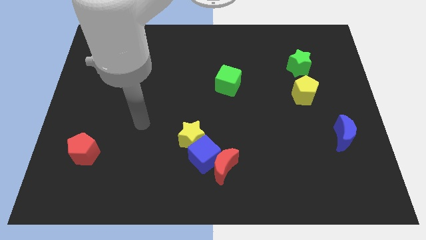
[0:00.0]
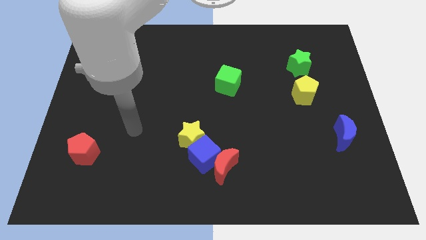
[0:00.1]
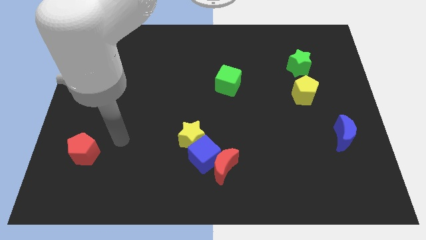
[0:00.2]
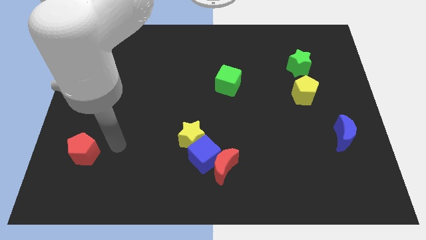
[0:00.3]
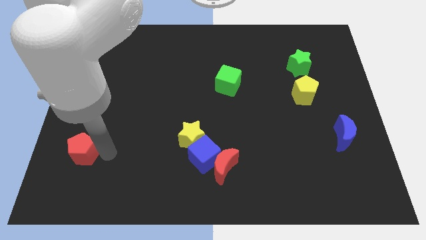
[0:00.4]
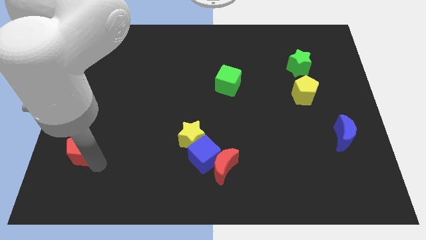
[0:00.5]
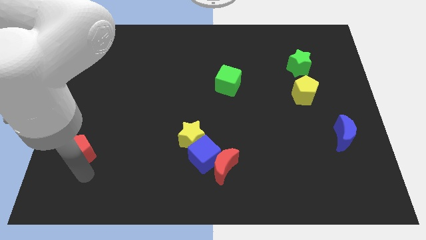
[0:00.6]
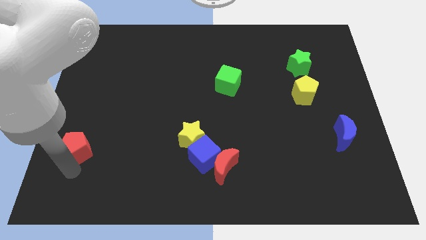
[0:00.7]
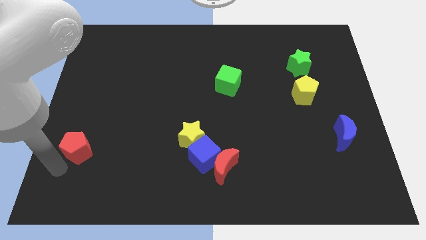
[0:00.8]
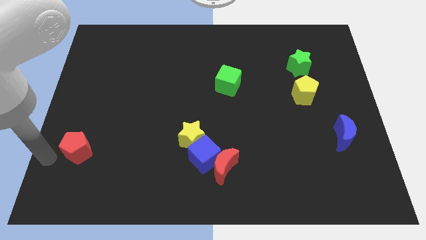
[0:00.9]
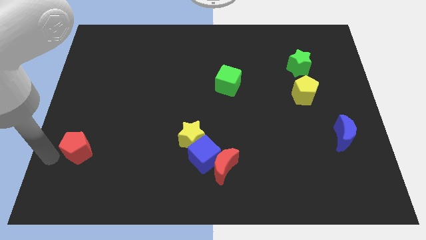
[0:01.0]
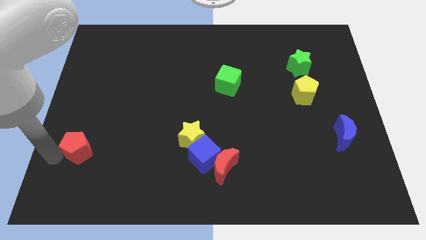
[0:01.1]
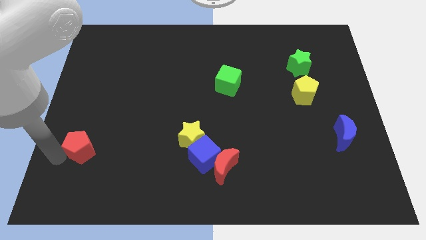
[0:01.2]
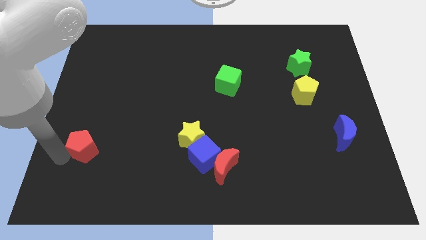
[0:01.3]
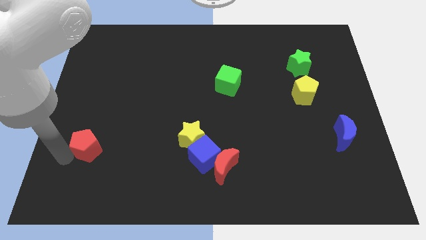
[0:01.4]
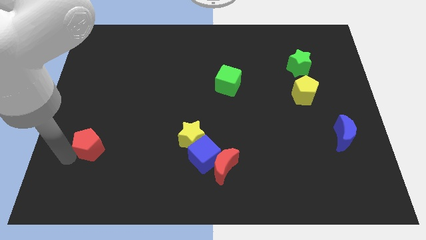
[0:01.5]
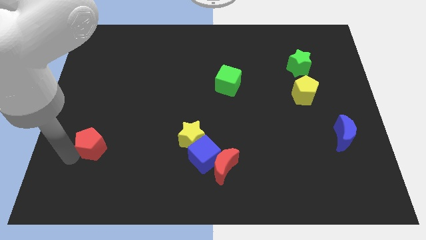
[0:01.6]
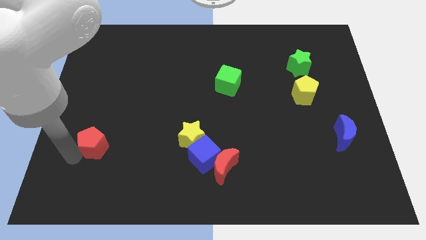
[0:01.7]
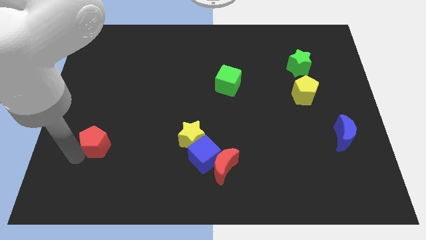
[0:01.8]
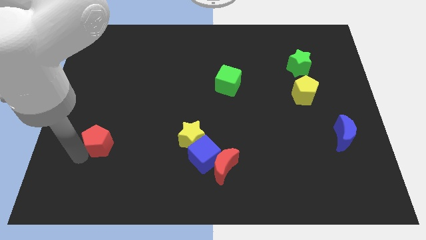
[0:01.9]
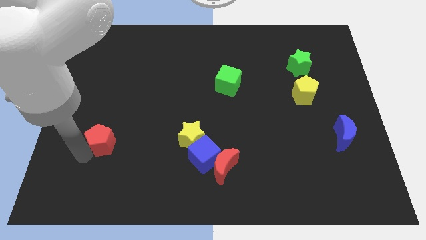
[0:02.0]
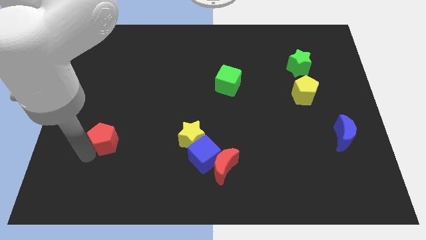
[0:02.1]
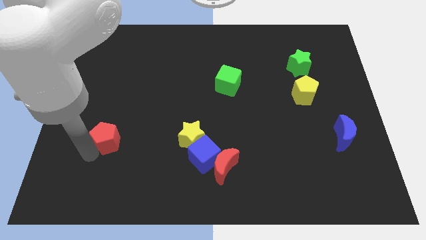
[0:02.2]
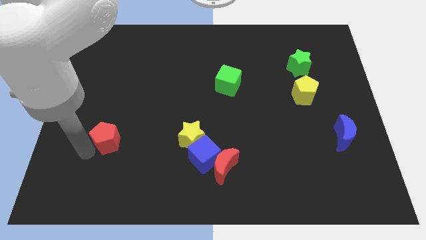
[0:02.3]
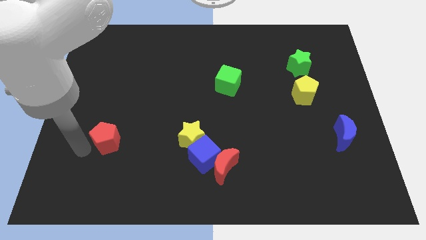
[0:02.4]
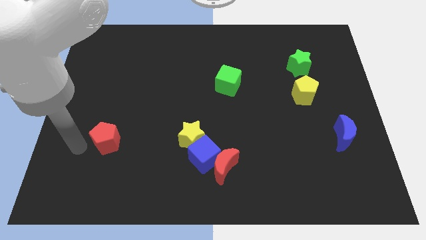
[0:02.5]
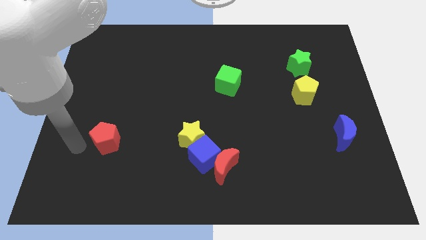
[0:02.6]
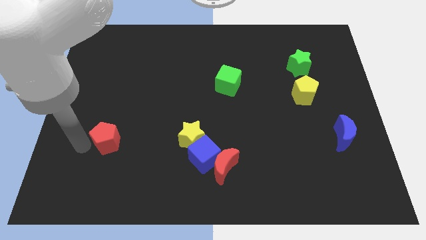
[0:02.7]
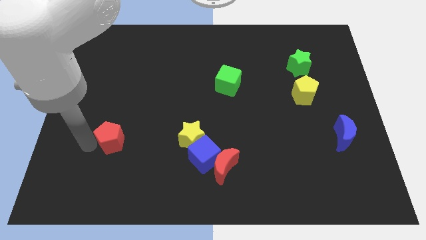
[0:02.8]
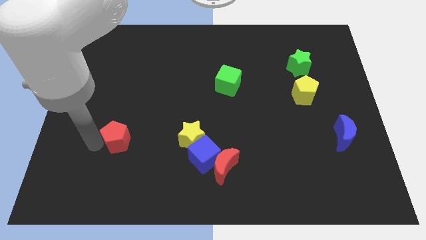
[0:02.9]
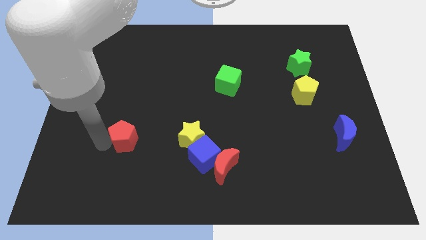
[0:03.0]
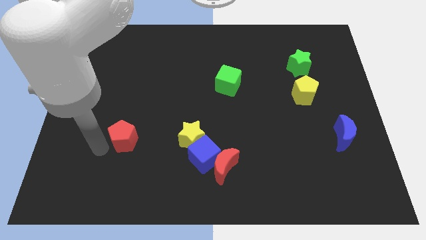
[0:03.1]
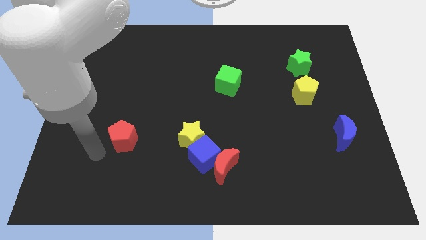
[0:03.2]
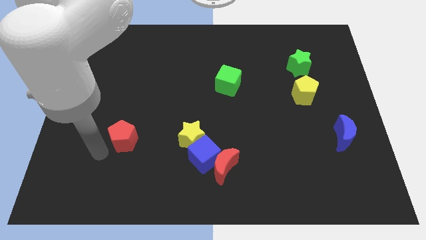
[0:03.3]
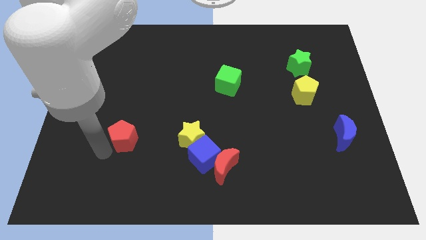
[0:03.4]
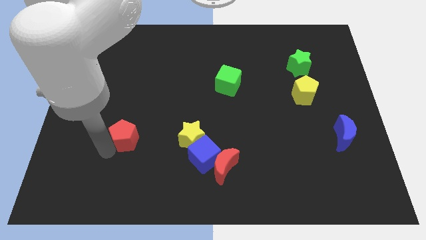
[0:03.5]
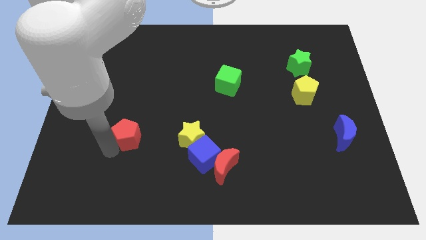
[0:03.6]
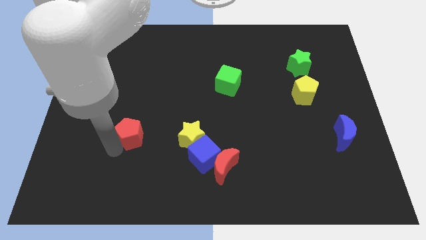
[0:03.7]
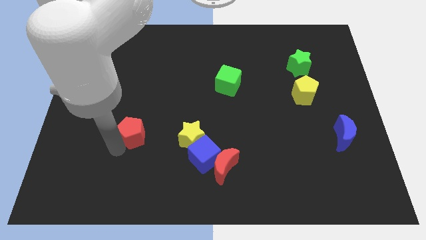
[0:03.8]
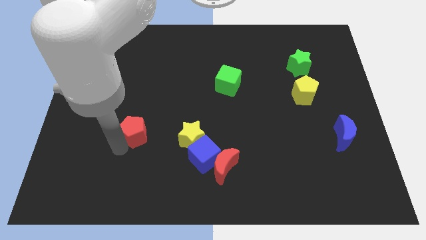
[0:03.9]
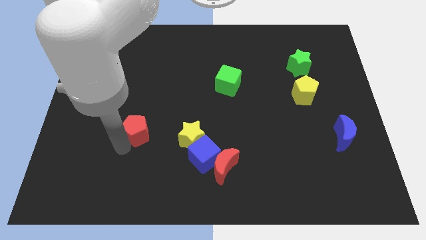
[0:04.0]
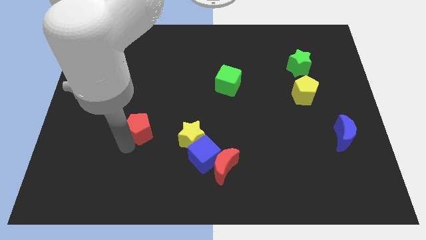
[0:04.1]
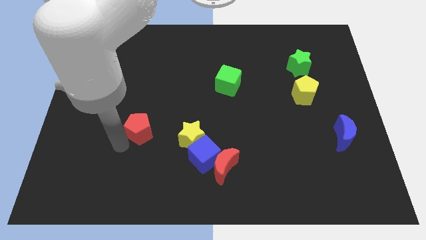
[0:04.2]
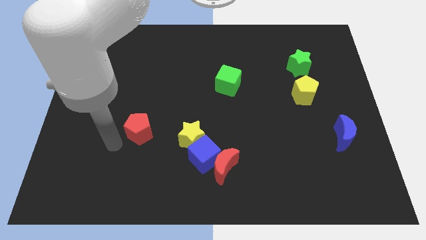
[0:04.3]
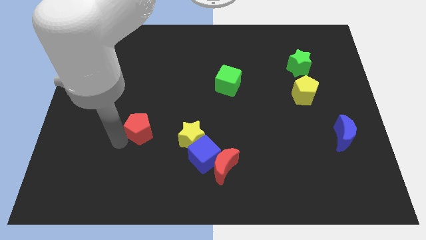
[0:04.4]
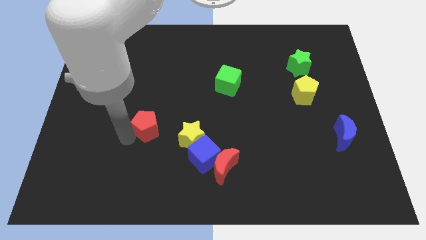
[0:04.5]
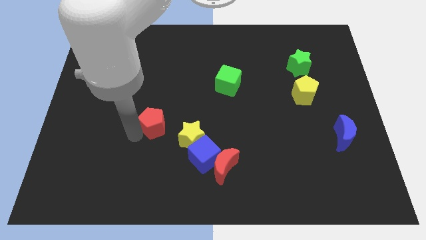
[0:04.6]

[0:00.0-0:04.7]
push the red pentagon diagonally up and to the left of the yellow star

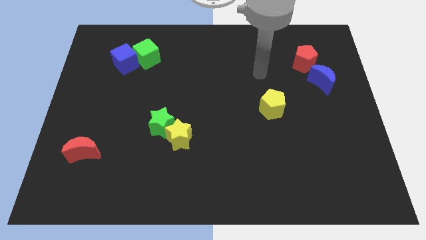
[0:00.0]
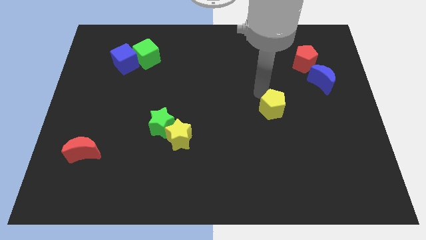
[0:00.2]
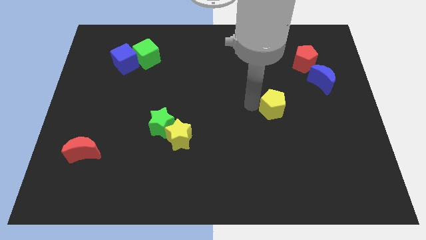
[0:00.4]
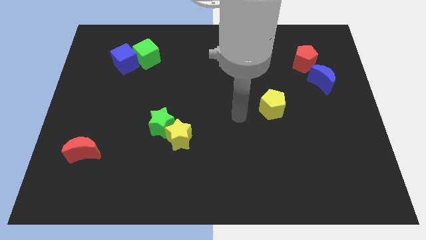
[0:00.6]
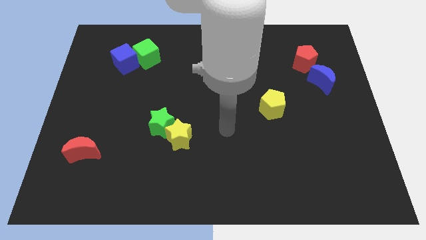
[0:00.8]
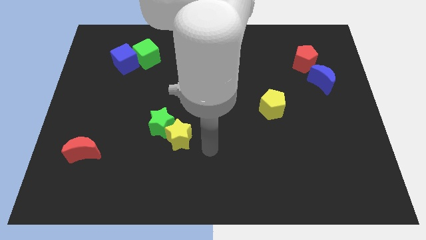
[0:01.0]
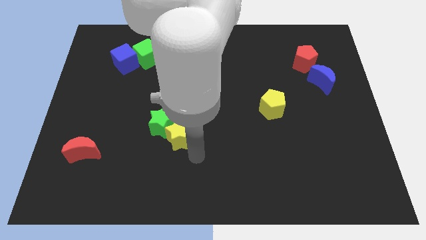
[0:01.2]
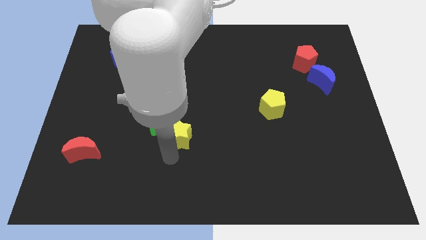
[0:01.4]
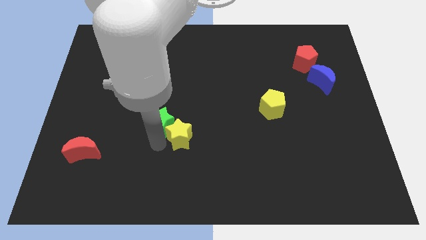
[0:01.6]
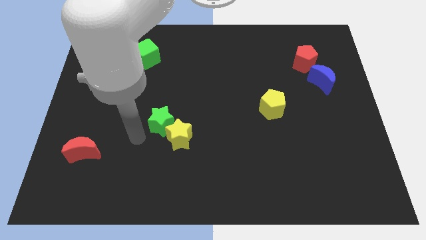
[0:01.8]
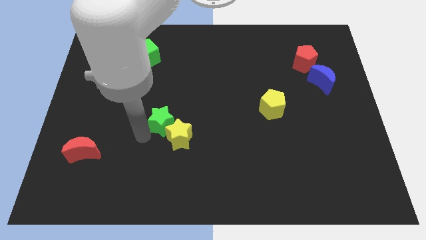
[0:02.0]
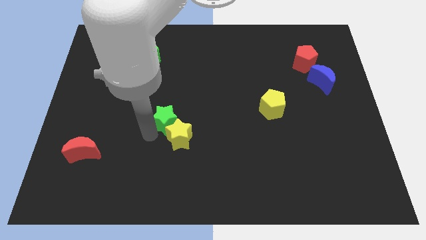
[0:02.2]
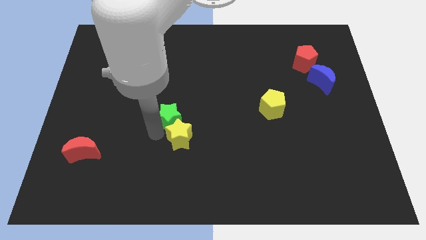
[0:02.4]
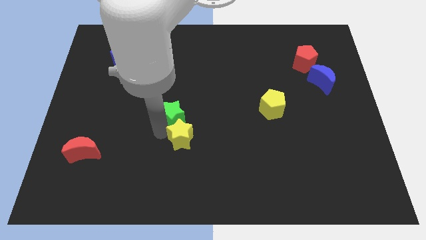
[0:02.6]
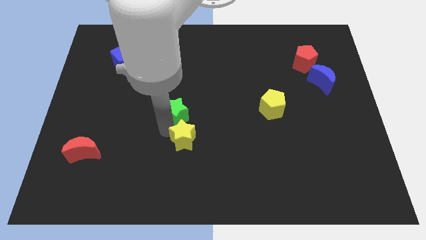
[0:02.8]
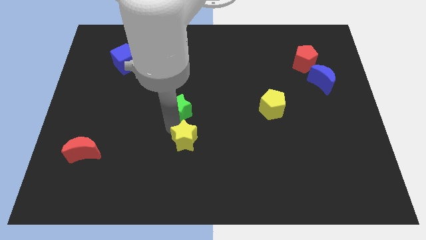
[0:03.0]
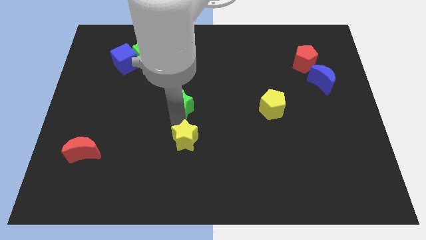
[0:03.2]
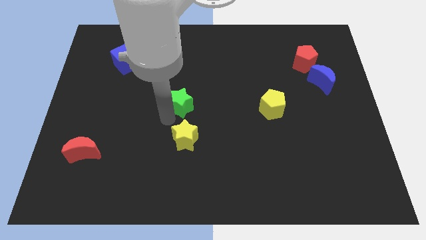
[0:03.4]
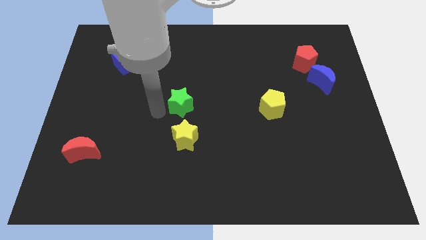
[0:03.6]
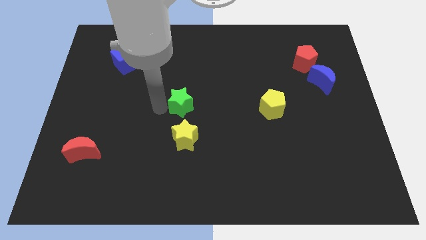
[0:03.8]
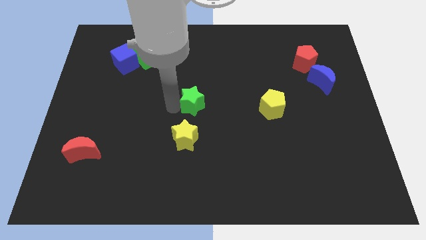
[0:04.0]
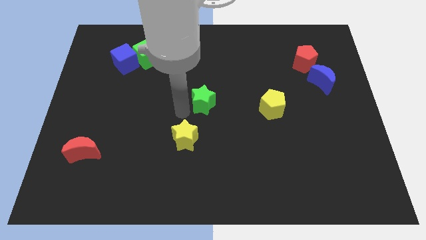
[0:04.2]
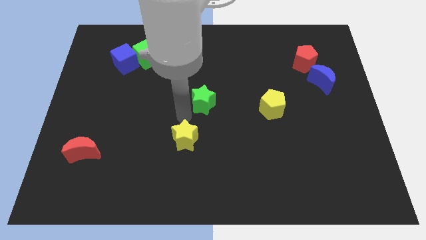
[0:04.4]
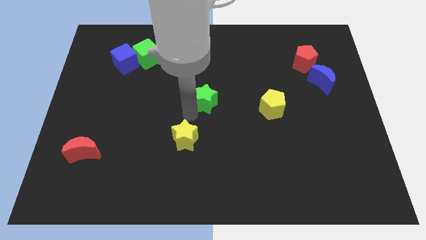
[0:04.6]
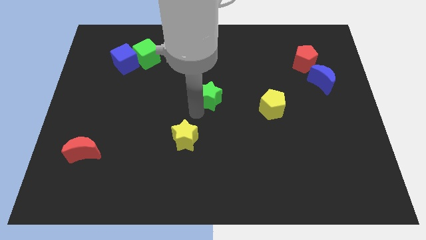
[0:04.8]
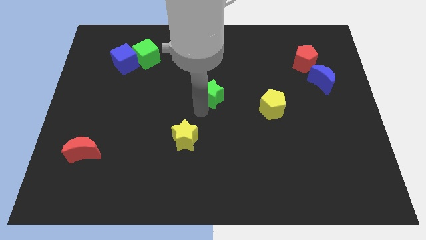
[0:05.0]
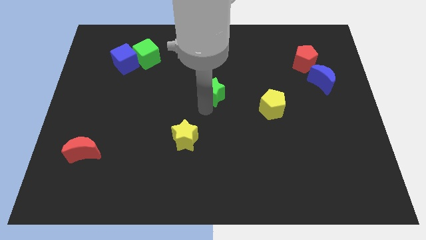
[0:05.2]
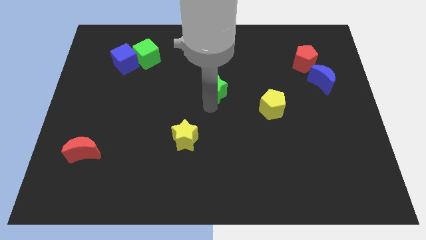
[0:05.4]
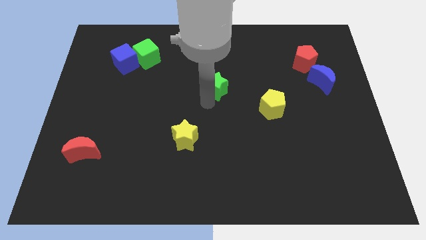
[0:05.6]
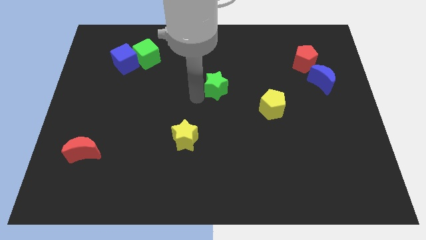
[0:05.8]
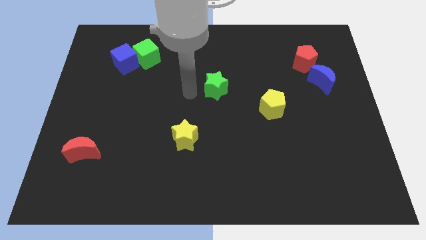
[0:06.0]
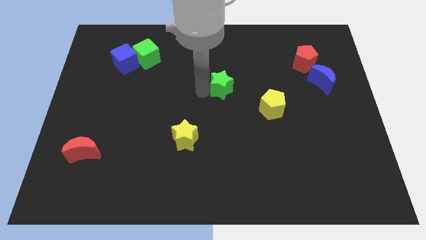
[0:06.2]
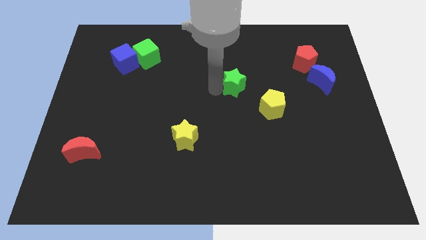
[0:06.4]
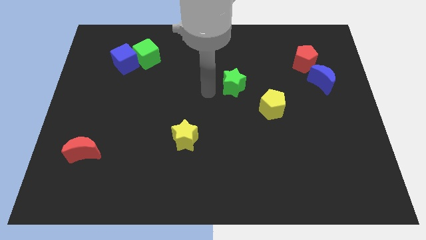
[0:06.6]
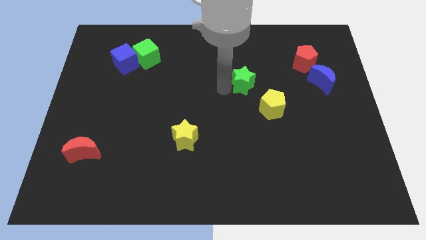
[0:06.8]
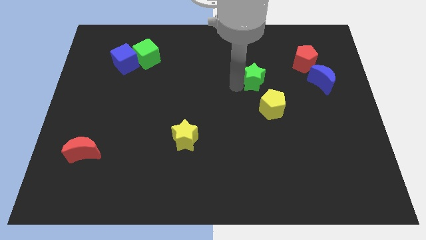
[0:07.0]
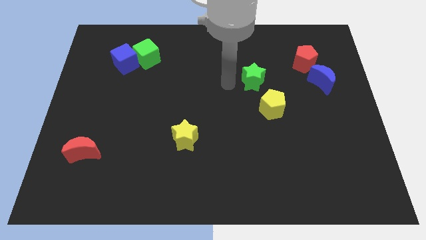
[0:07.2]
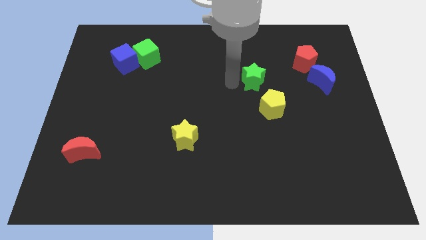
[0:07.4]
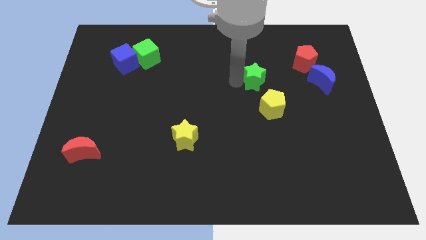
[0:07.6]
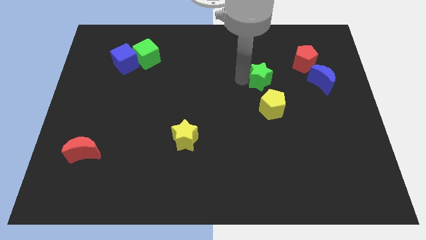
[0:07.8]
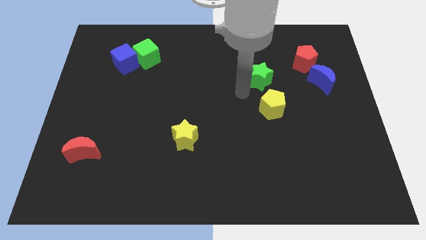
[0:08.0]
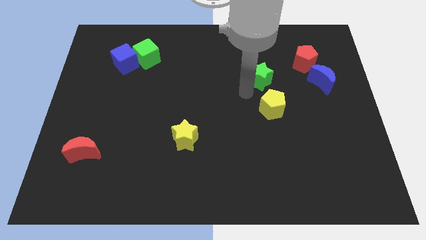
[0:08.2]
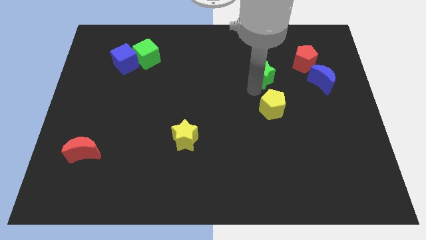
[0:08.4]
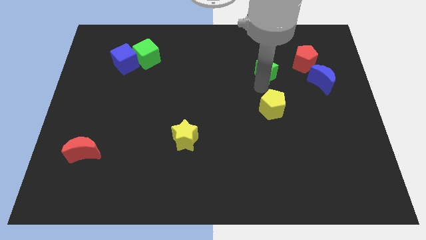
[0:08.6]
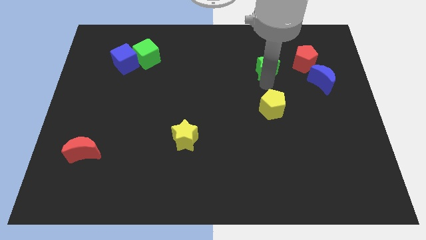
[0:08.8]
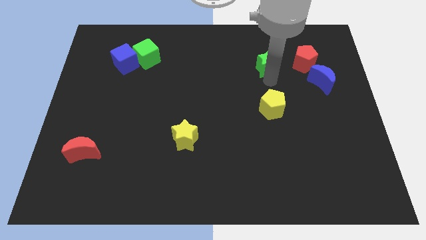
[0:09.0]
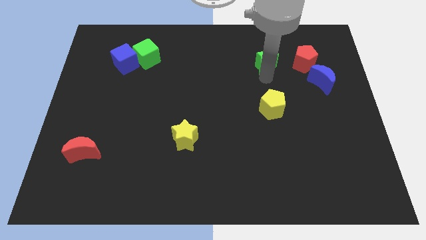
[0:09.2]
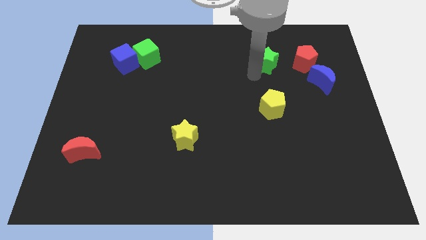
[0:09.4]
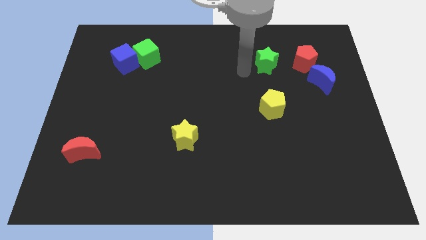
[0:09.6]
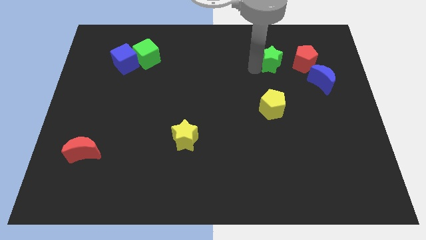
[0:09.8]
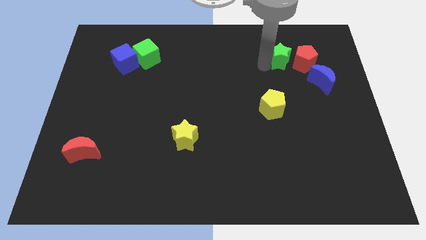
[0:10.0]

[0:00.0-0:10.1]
move the green star to the top left side of the blue moon
